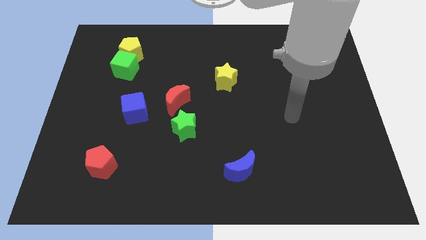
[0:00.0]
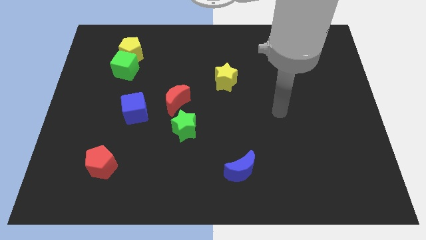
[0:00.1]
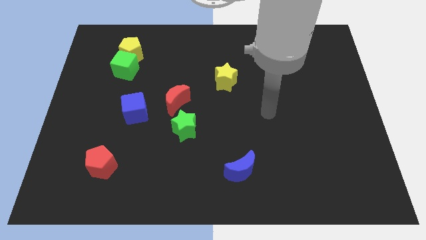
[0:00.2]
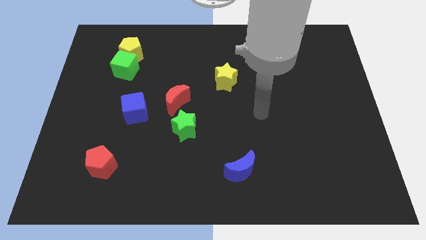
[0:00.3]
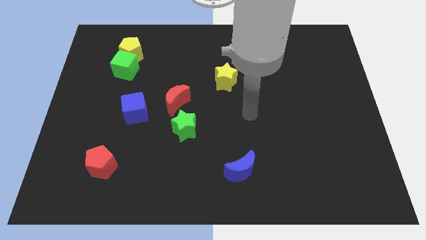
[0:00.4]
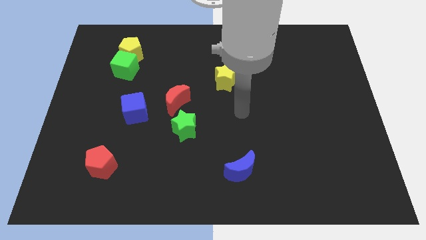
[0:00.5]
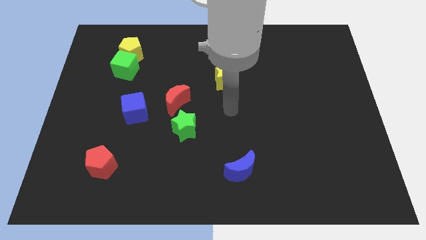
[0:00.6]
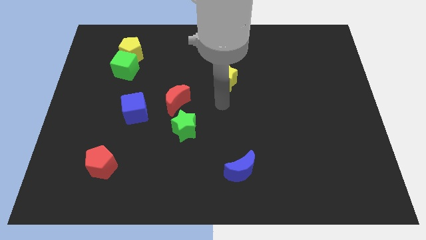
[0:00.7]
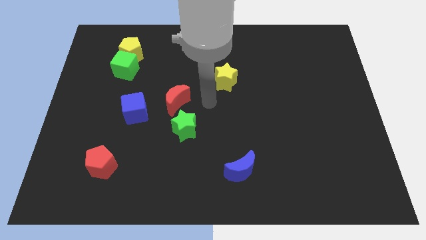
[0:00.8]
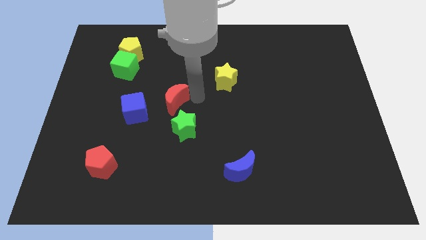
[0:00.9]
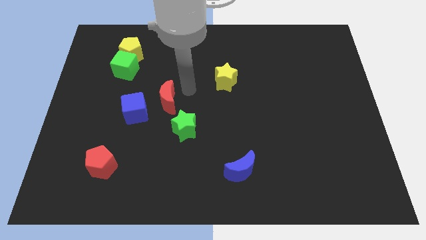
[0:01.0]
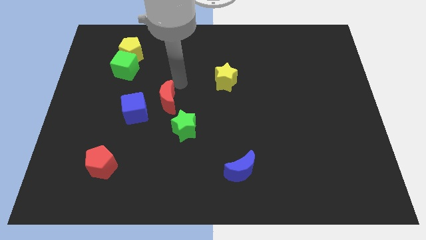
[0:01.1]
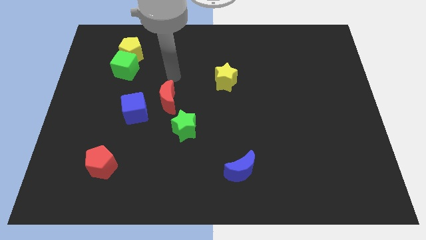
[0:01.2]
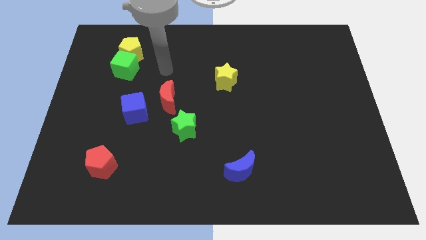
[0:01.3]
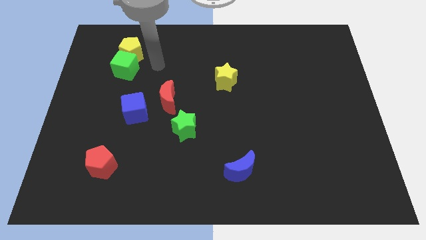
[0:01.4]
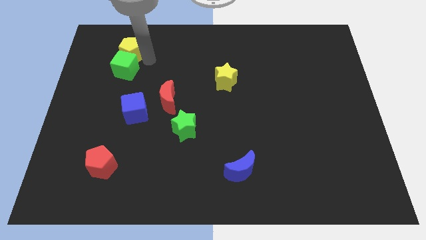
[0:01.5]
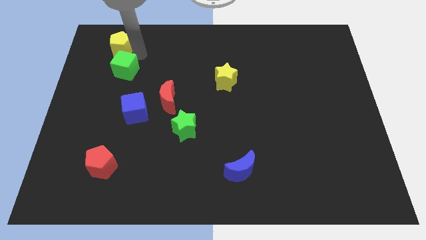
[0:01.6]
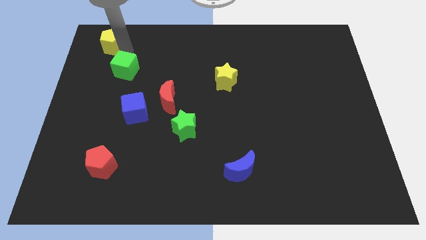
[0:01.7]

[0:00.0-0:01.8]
move the green cube away from the yellow pentagon

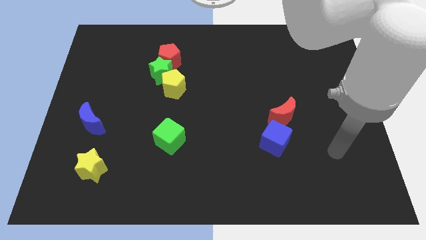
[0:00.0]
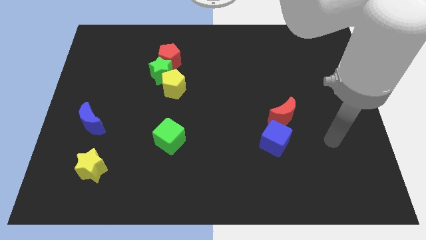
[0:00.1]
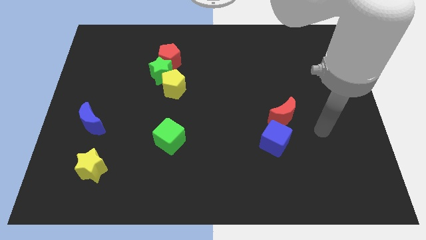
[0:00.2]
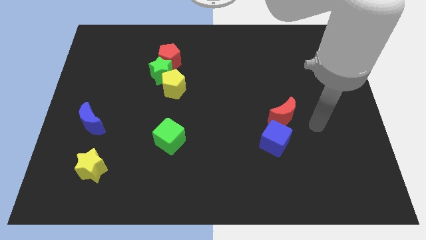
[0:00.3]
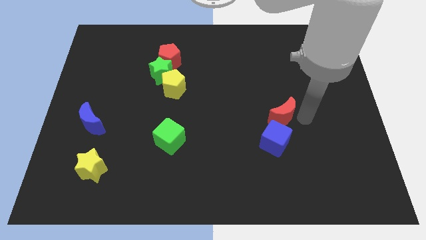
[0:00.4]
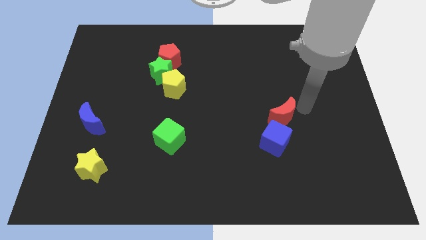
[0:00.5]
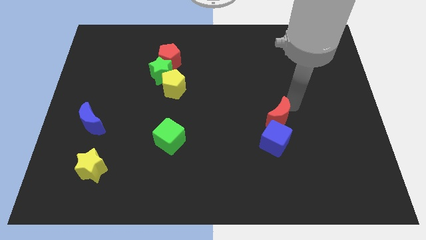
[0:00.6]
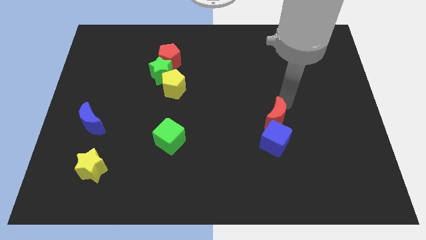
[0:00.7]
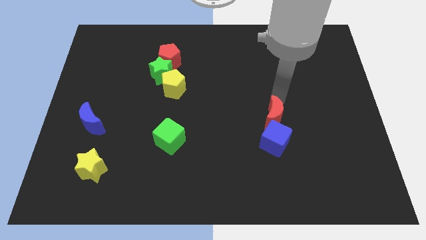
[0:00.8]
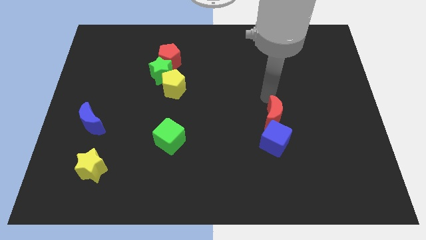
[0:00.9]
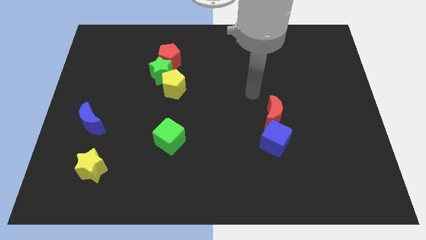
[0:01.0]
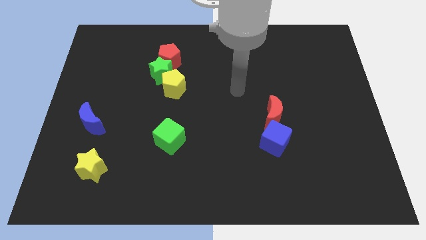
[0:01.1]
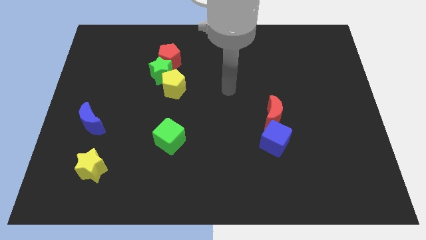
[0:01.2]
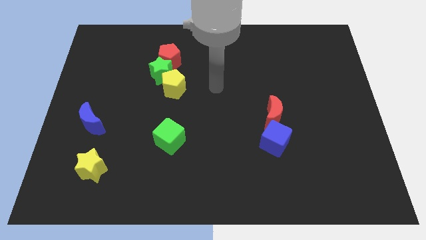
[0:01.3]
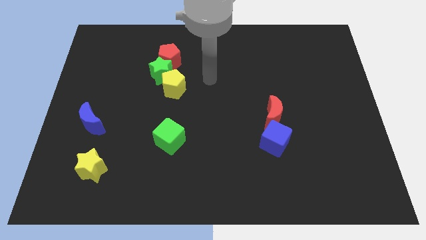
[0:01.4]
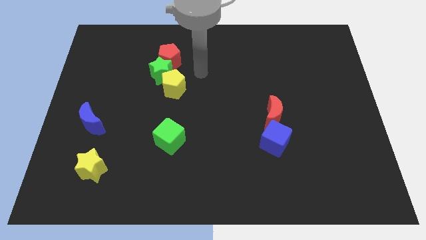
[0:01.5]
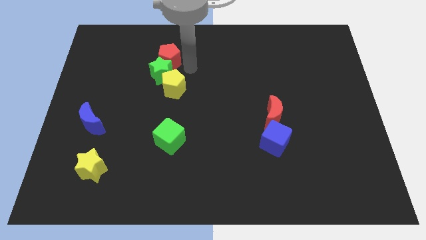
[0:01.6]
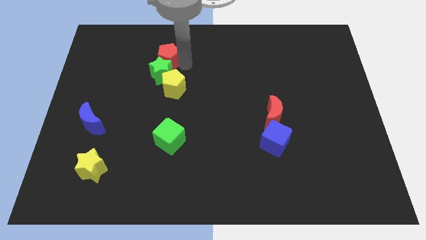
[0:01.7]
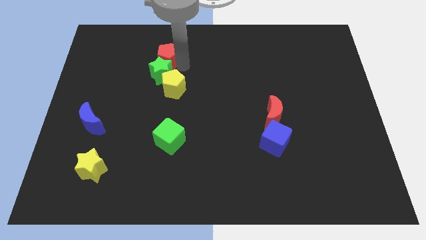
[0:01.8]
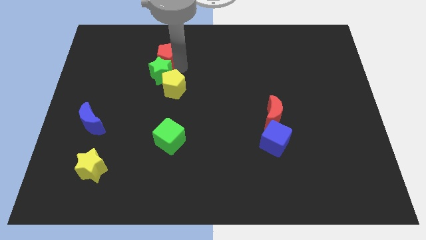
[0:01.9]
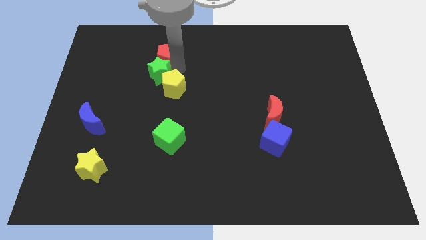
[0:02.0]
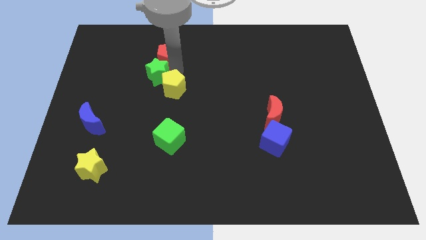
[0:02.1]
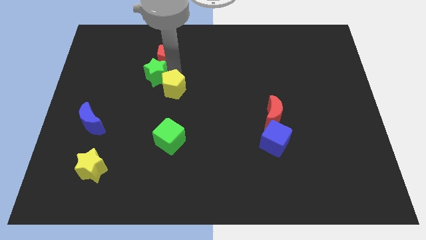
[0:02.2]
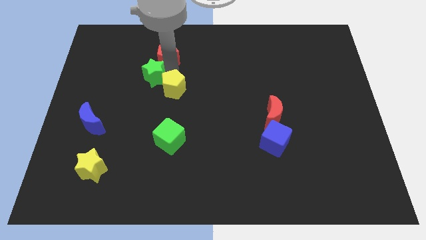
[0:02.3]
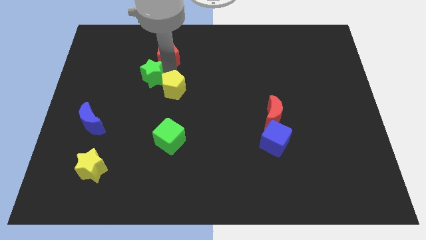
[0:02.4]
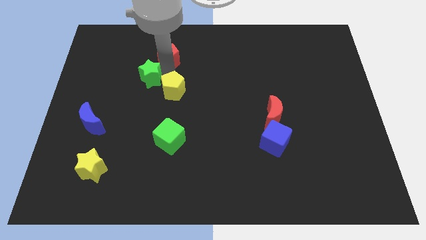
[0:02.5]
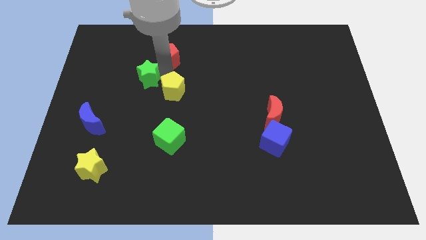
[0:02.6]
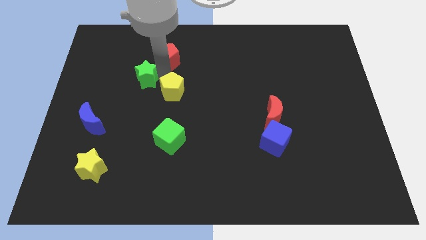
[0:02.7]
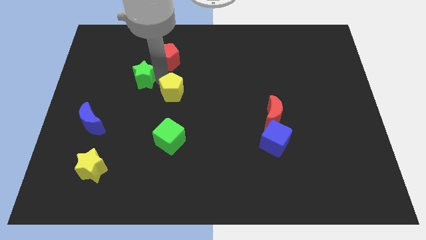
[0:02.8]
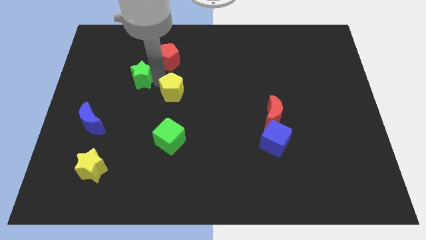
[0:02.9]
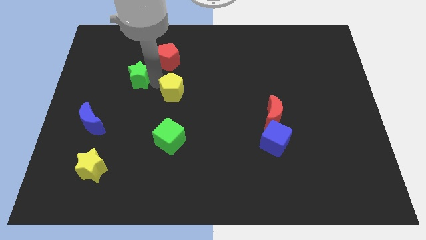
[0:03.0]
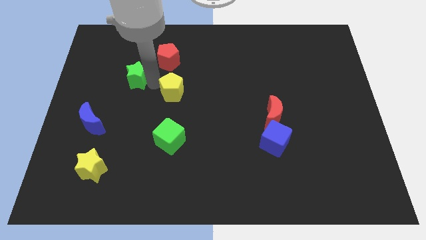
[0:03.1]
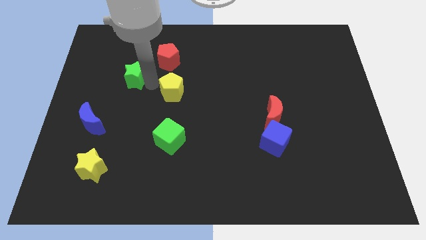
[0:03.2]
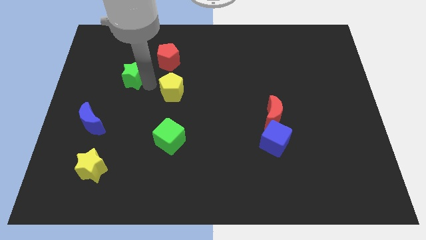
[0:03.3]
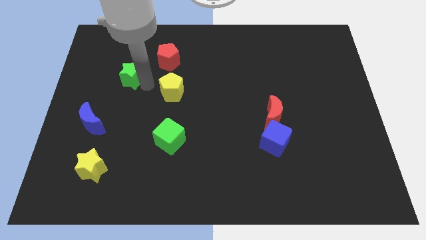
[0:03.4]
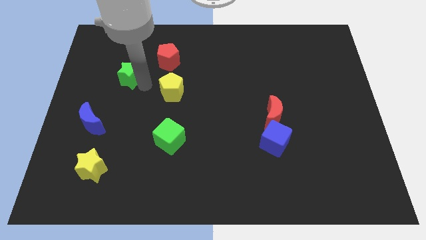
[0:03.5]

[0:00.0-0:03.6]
separate the green star from the yellow pentagon and red pentagon

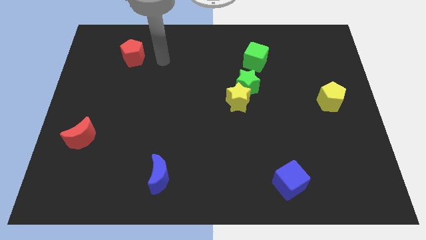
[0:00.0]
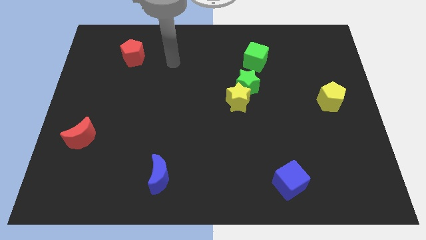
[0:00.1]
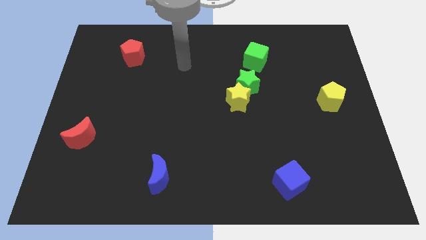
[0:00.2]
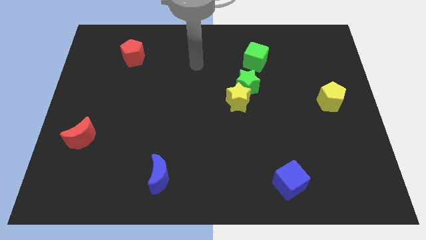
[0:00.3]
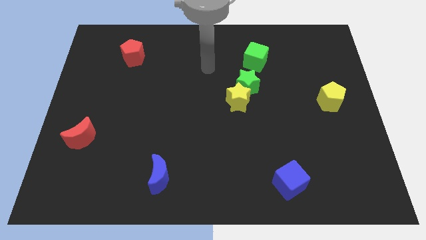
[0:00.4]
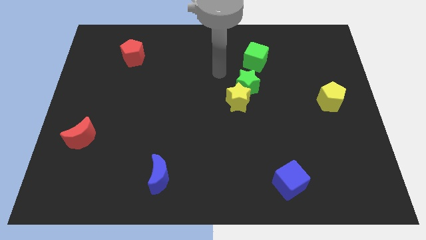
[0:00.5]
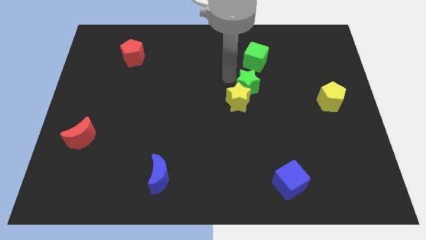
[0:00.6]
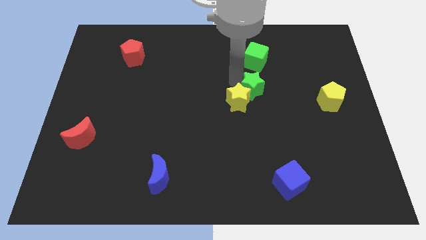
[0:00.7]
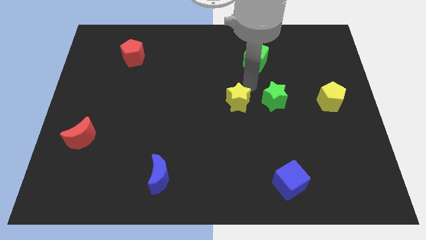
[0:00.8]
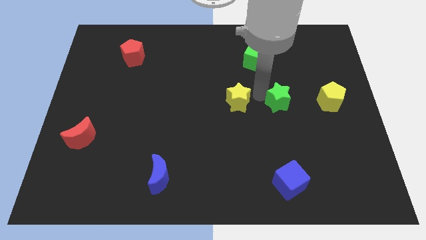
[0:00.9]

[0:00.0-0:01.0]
pull the yellow star apart from the green star

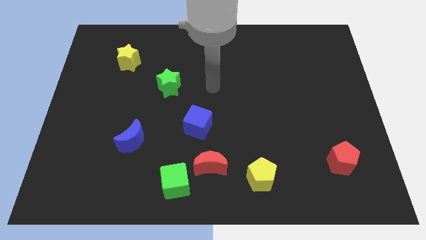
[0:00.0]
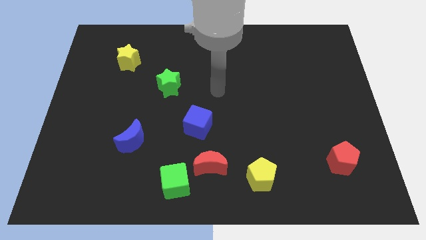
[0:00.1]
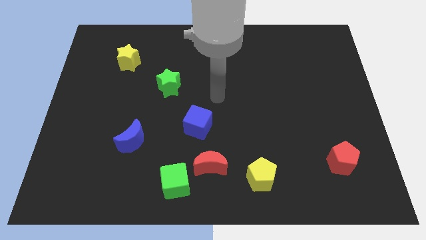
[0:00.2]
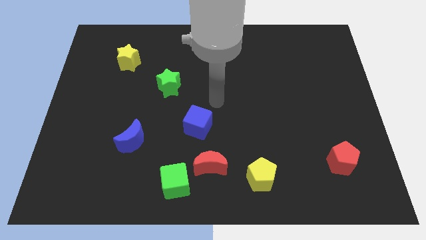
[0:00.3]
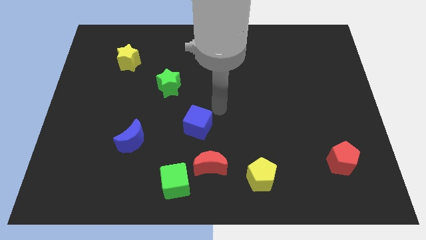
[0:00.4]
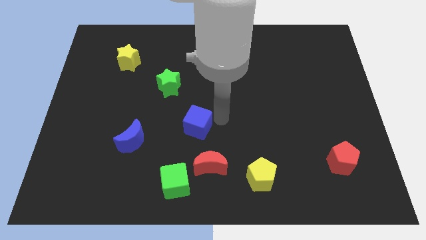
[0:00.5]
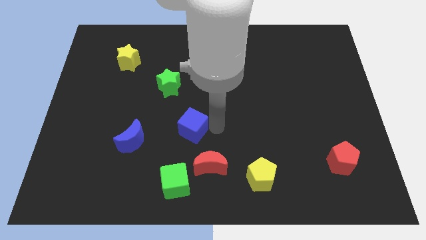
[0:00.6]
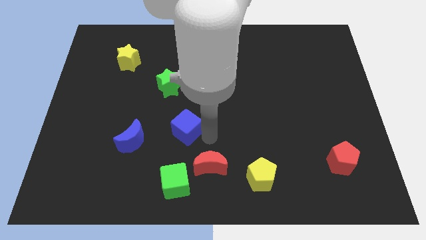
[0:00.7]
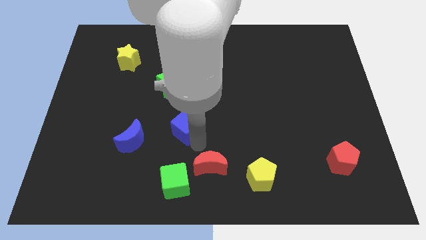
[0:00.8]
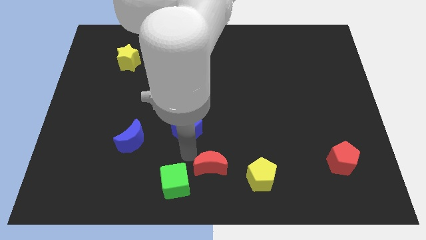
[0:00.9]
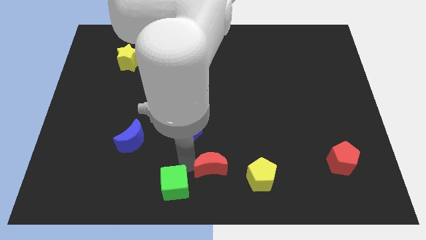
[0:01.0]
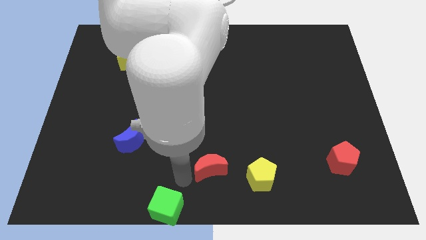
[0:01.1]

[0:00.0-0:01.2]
move the red moon away from the green cube

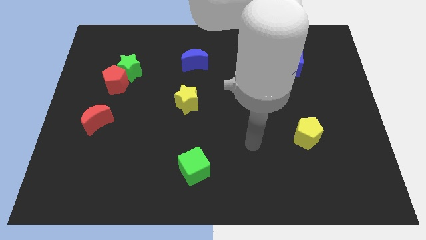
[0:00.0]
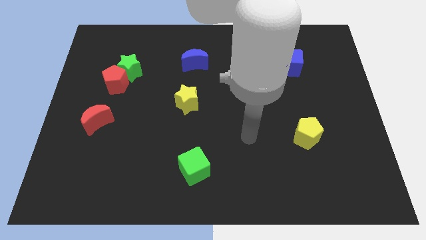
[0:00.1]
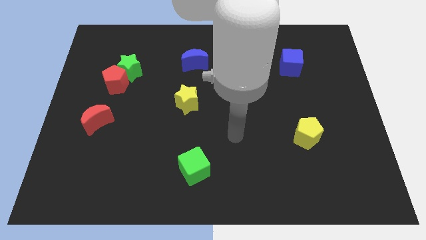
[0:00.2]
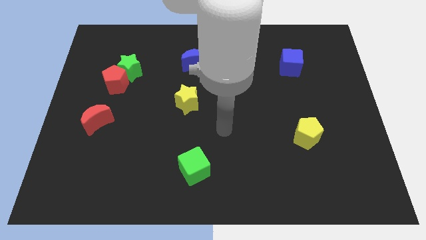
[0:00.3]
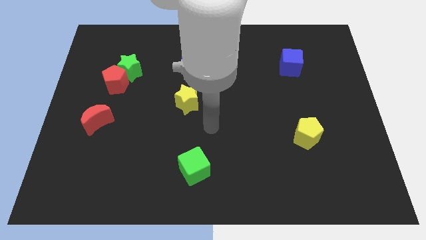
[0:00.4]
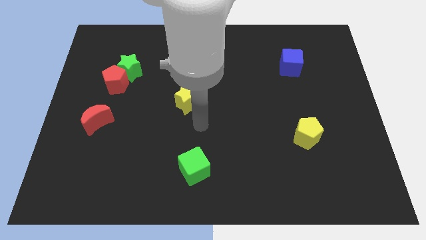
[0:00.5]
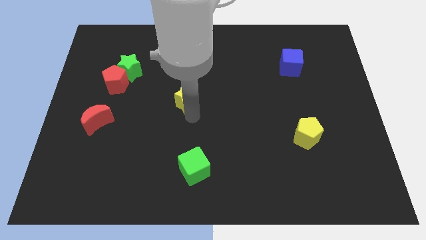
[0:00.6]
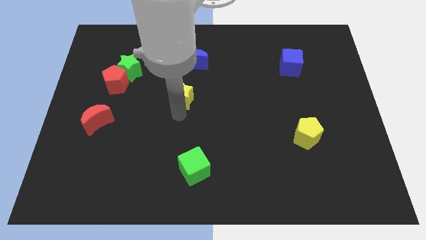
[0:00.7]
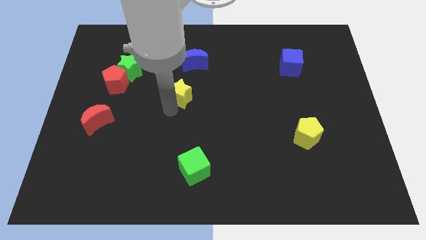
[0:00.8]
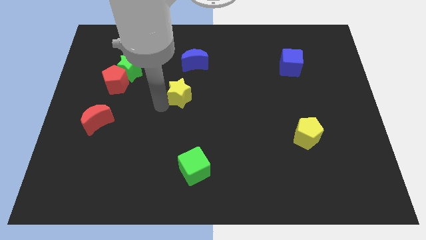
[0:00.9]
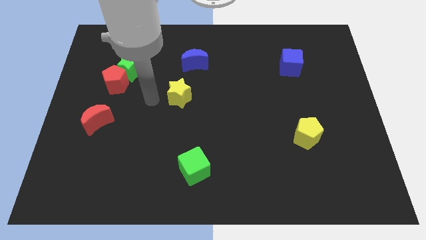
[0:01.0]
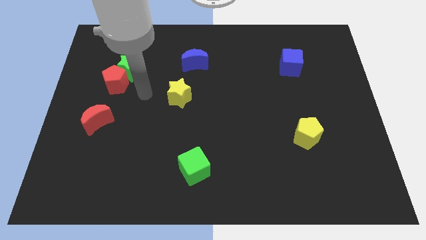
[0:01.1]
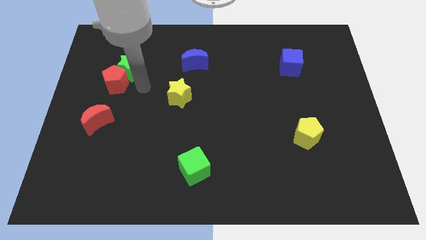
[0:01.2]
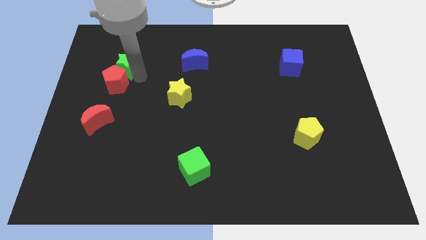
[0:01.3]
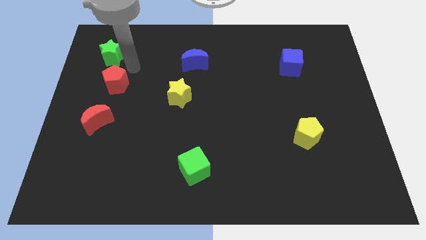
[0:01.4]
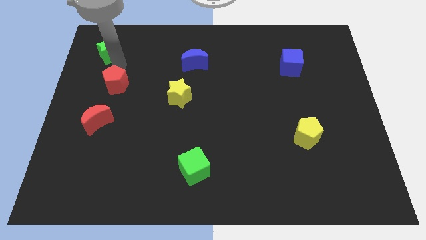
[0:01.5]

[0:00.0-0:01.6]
pull the red pentagon apart from the green star
